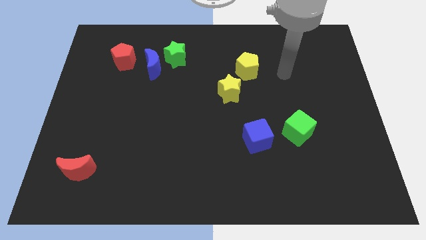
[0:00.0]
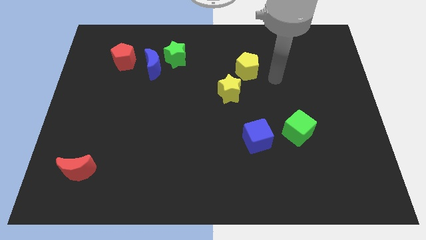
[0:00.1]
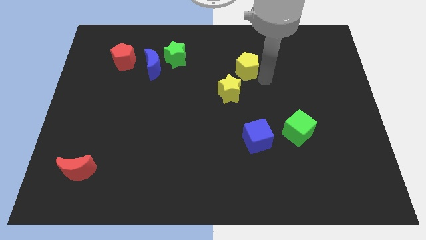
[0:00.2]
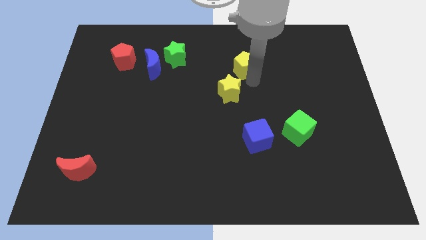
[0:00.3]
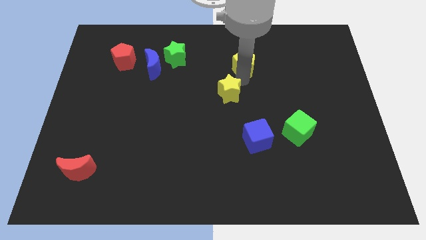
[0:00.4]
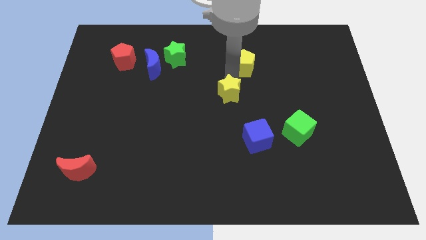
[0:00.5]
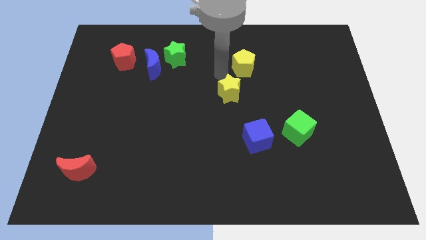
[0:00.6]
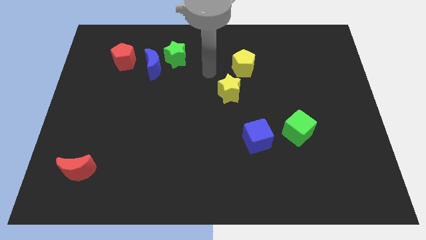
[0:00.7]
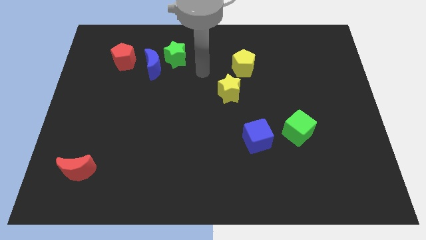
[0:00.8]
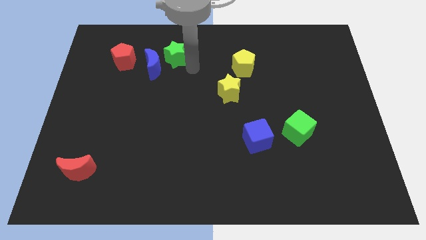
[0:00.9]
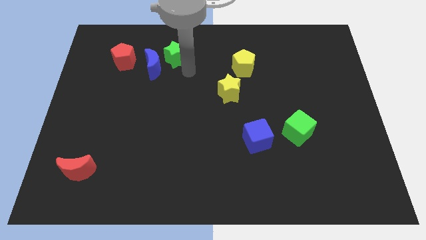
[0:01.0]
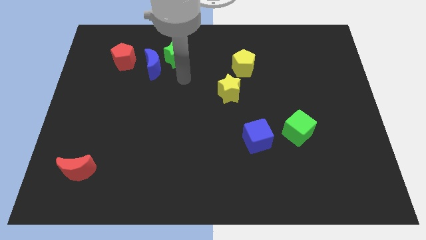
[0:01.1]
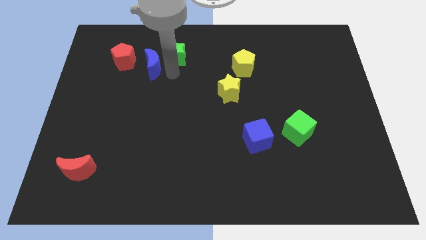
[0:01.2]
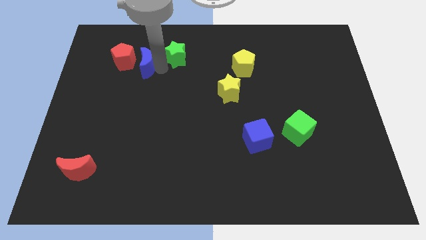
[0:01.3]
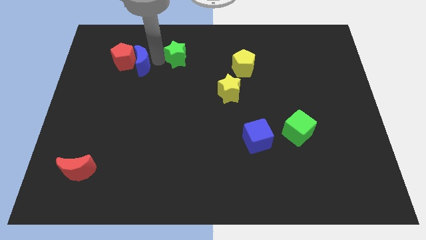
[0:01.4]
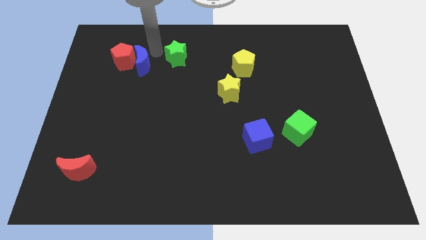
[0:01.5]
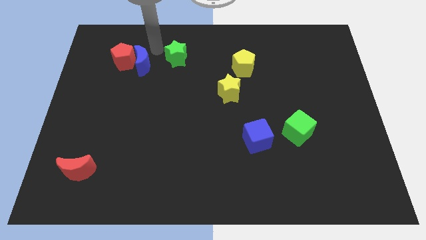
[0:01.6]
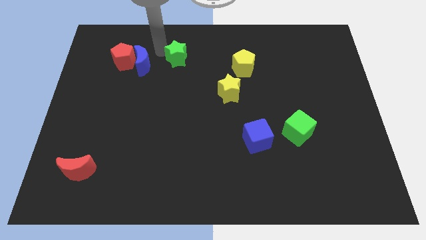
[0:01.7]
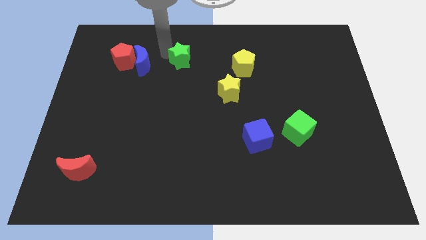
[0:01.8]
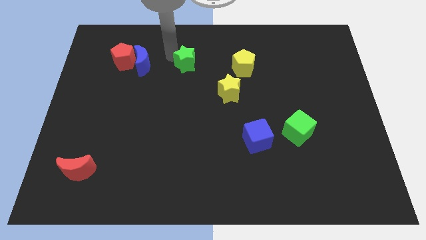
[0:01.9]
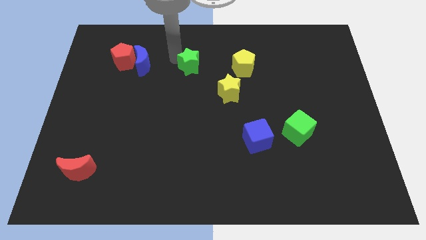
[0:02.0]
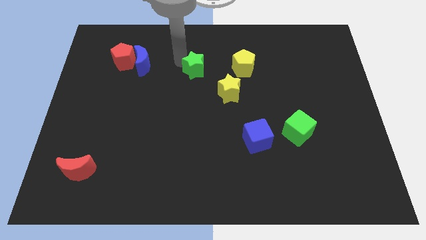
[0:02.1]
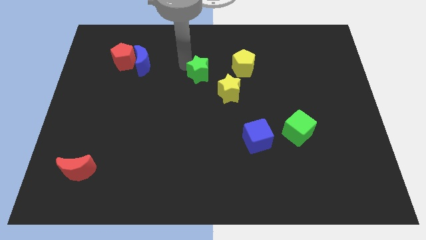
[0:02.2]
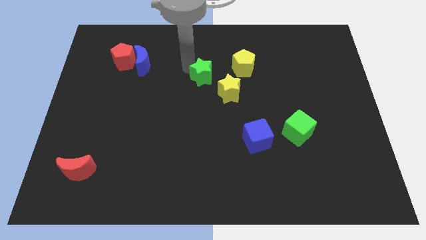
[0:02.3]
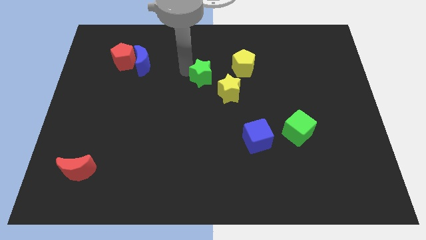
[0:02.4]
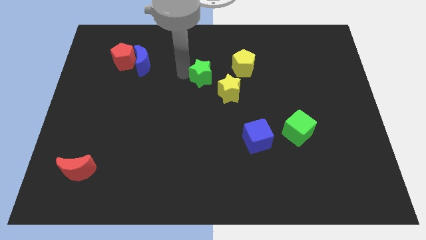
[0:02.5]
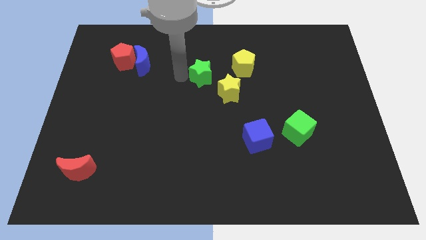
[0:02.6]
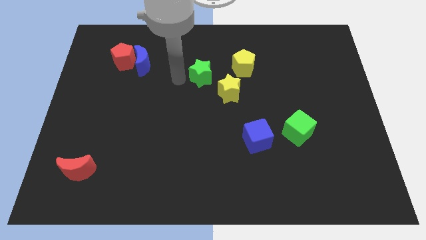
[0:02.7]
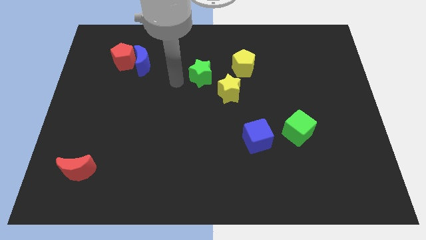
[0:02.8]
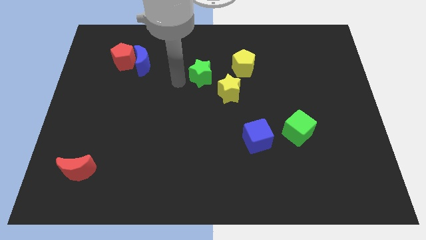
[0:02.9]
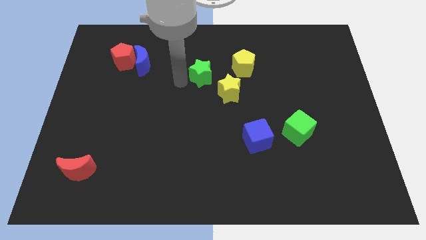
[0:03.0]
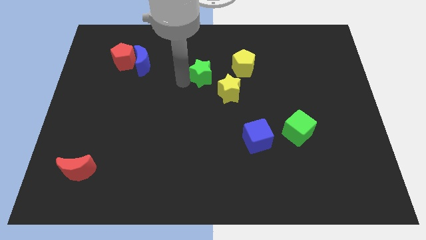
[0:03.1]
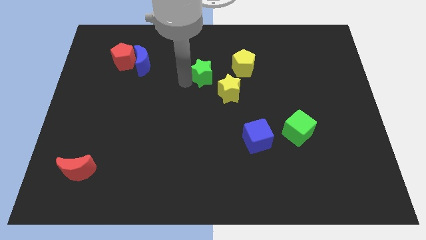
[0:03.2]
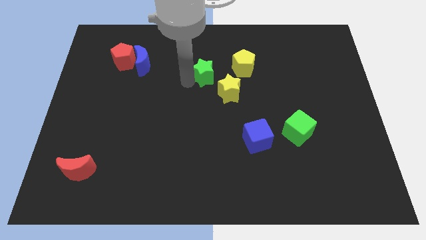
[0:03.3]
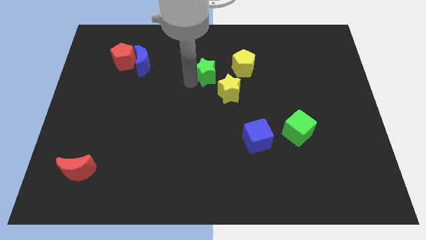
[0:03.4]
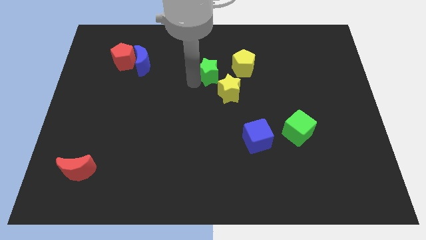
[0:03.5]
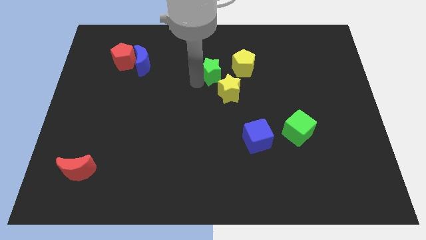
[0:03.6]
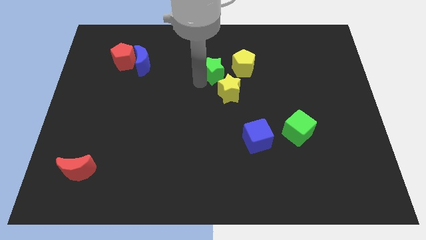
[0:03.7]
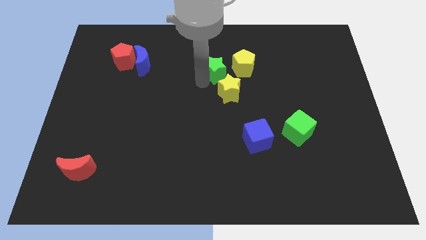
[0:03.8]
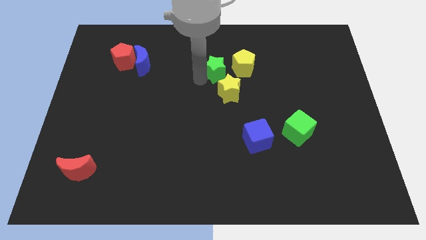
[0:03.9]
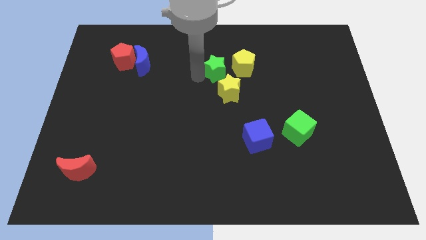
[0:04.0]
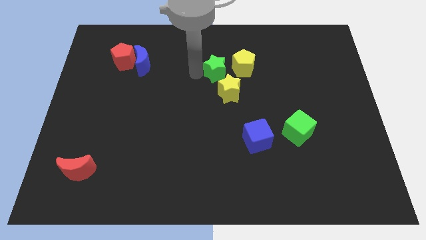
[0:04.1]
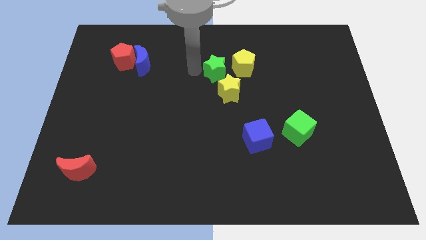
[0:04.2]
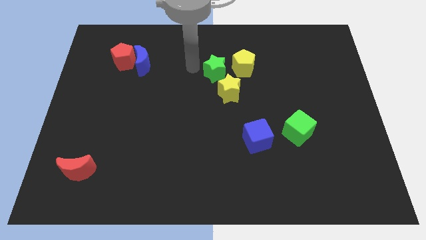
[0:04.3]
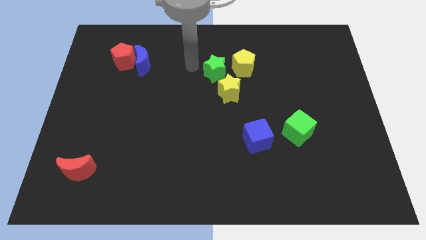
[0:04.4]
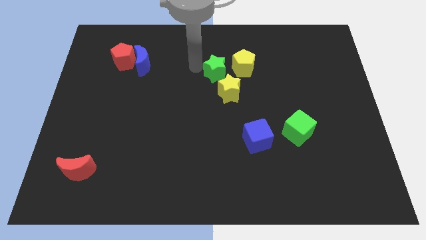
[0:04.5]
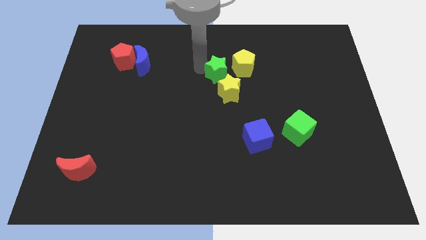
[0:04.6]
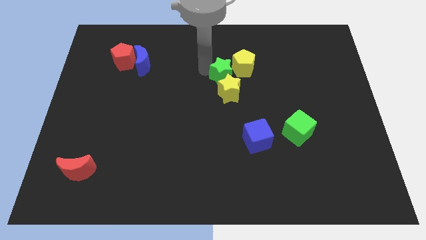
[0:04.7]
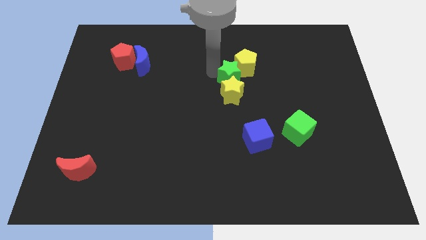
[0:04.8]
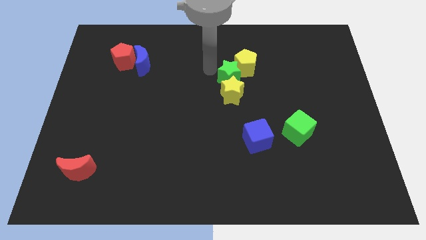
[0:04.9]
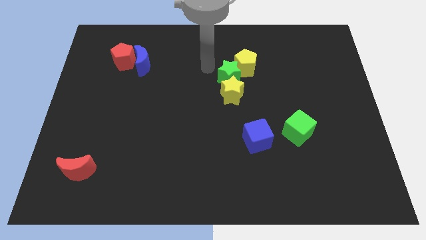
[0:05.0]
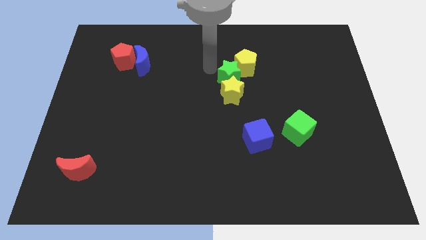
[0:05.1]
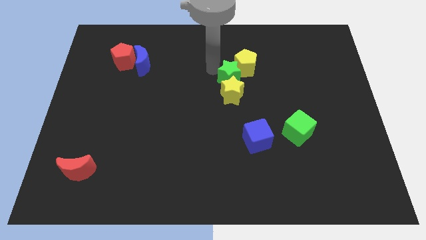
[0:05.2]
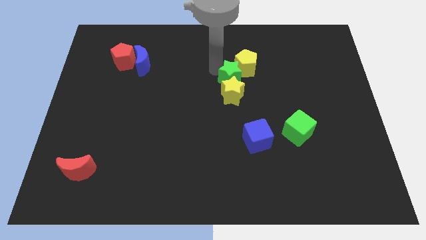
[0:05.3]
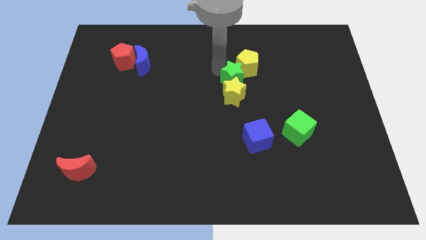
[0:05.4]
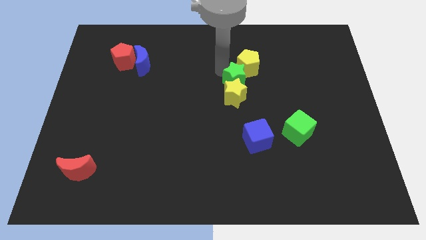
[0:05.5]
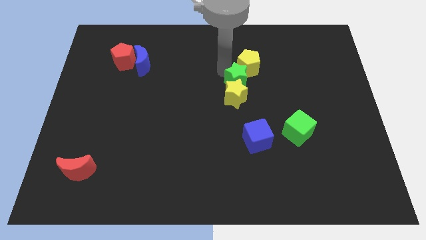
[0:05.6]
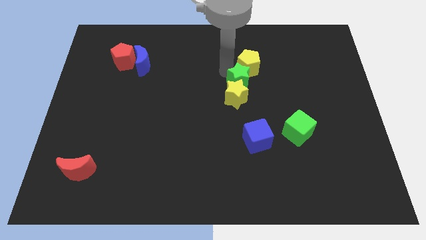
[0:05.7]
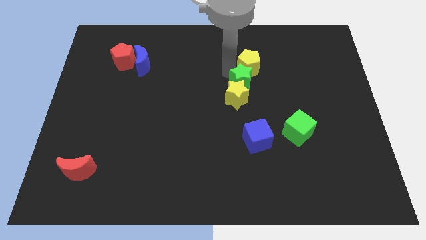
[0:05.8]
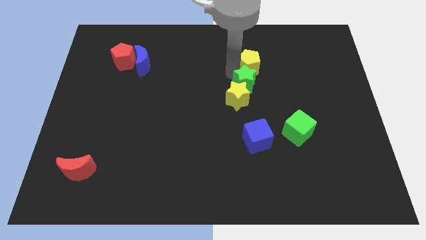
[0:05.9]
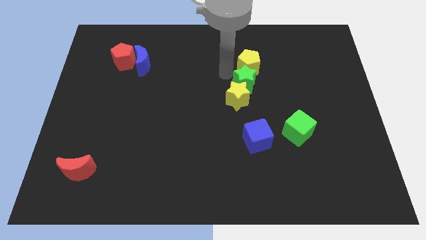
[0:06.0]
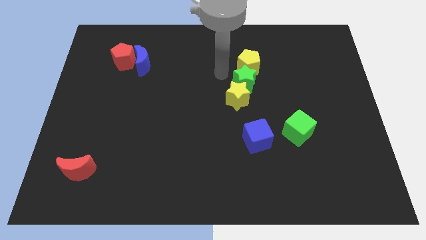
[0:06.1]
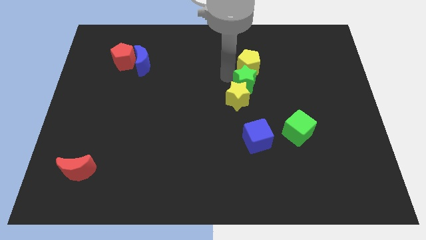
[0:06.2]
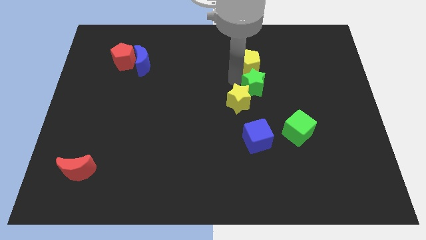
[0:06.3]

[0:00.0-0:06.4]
slide the green star right of the yellow star
